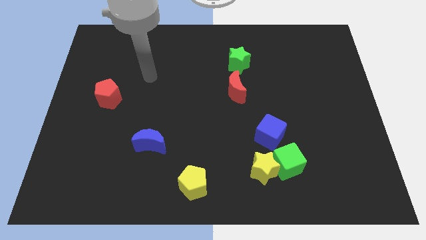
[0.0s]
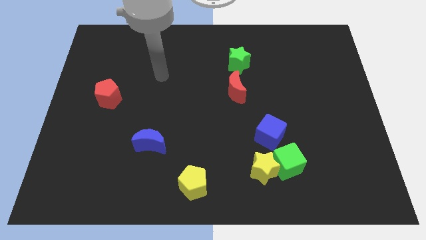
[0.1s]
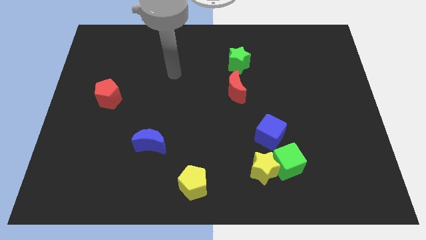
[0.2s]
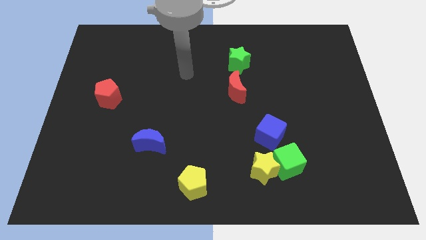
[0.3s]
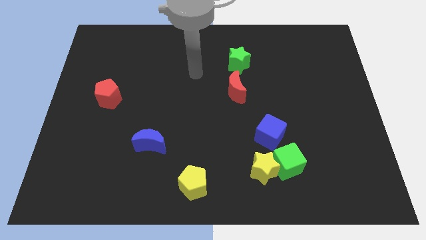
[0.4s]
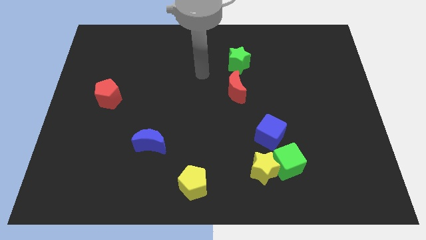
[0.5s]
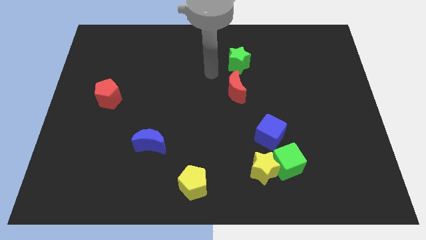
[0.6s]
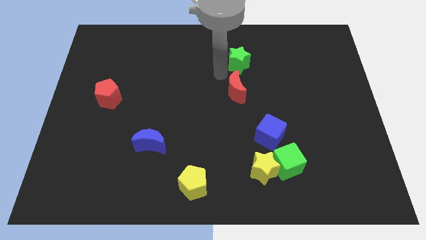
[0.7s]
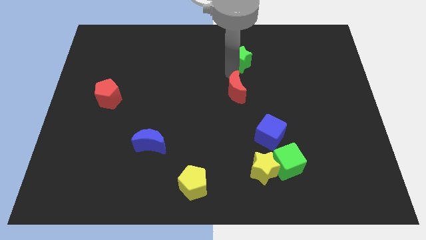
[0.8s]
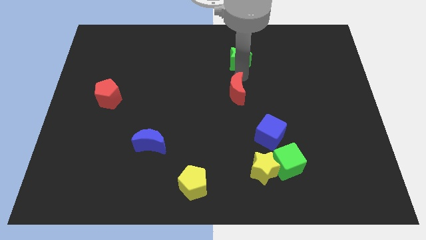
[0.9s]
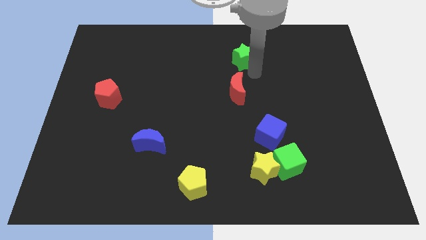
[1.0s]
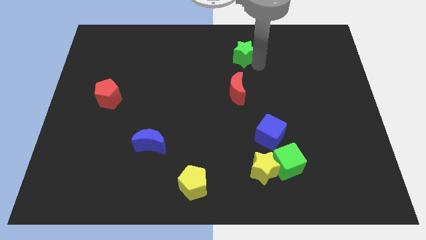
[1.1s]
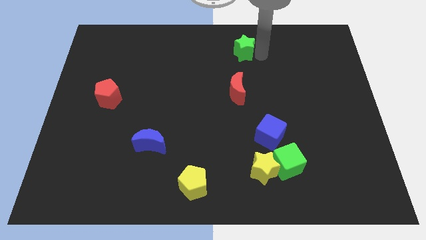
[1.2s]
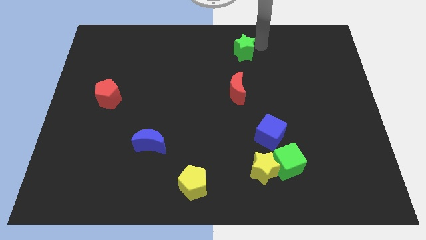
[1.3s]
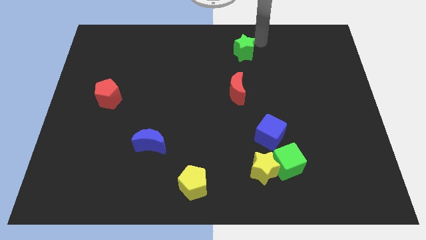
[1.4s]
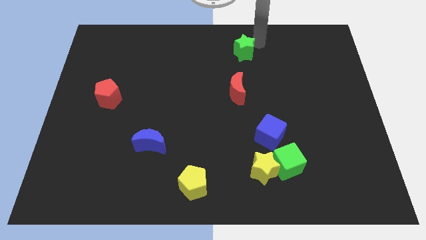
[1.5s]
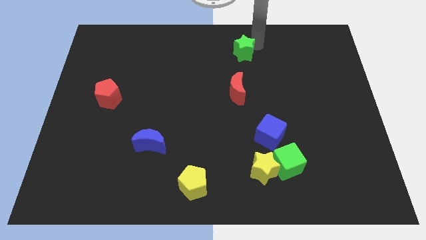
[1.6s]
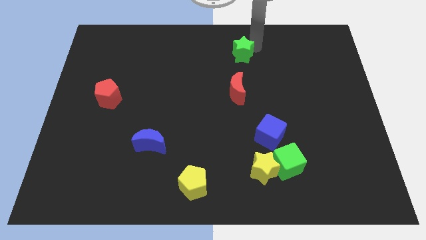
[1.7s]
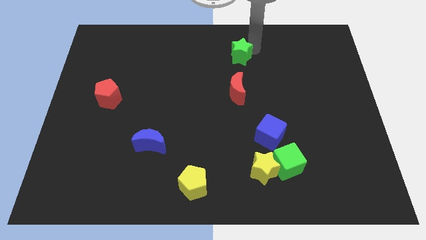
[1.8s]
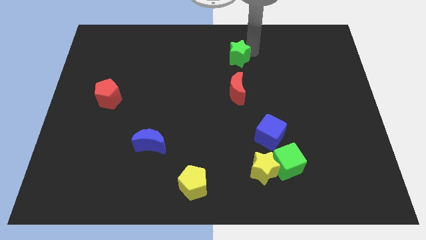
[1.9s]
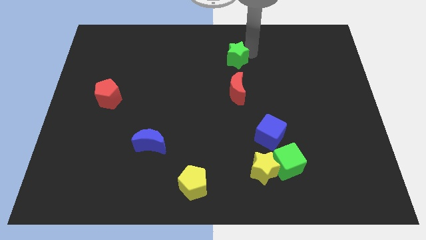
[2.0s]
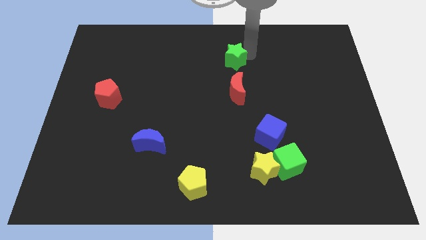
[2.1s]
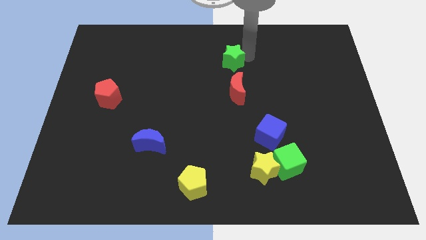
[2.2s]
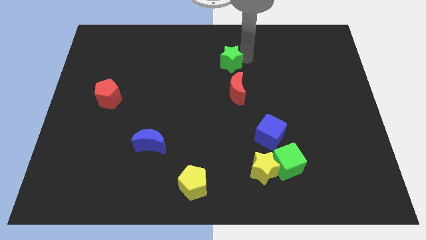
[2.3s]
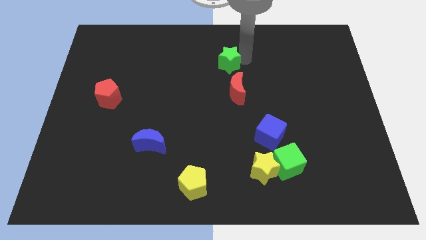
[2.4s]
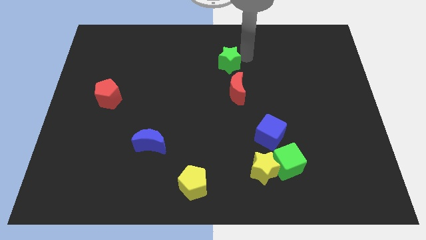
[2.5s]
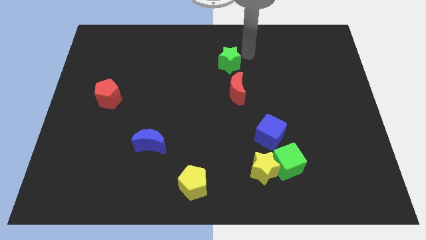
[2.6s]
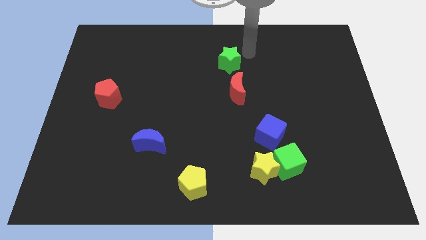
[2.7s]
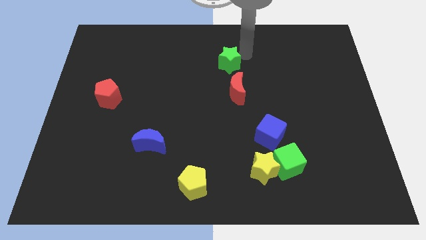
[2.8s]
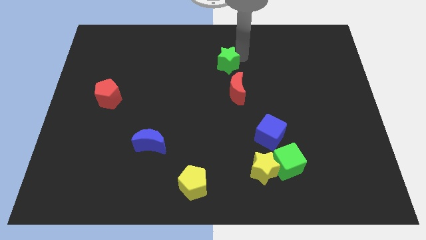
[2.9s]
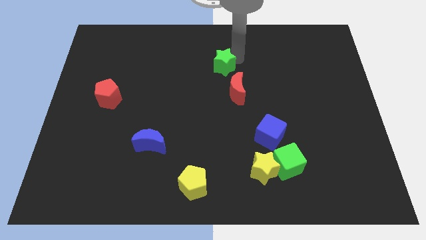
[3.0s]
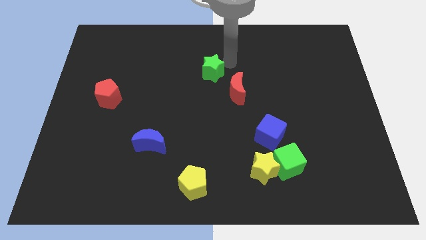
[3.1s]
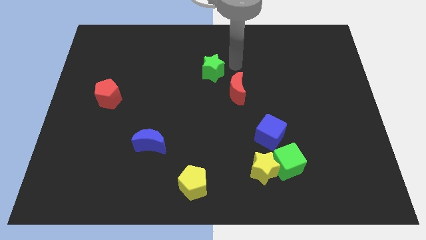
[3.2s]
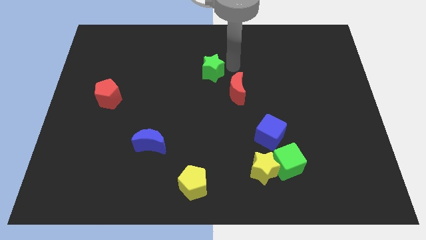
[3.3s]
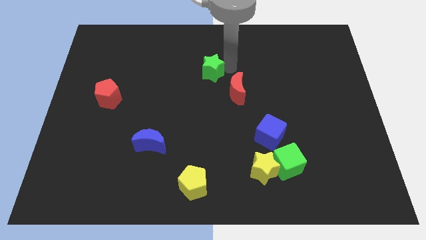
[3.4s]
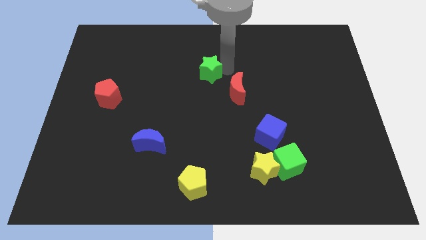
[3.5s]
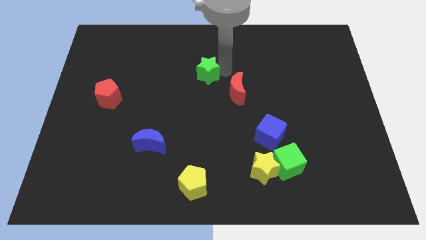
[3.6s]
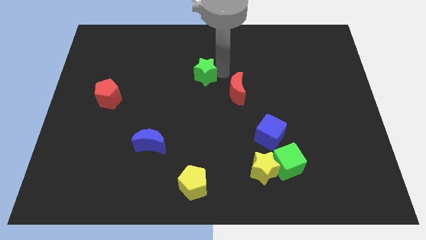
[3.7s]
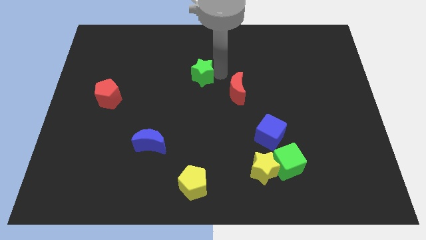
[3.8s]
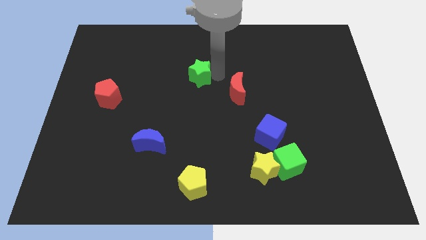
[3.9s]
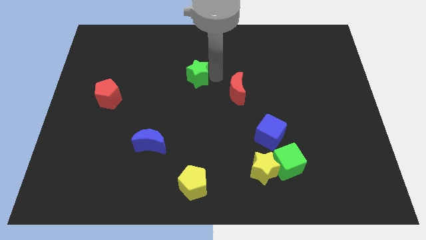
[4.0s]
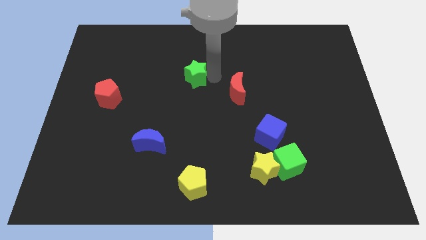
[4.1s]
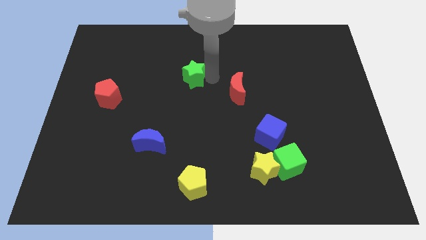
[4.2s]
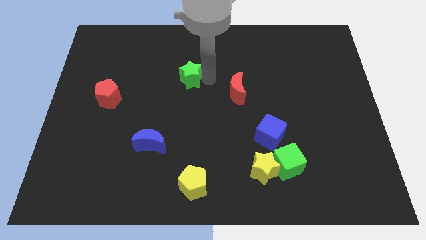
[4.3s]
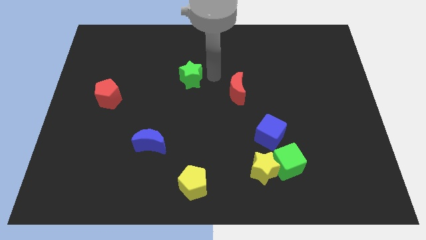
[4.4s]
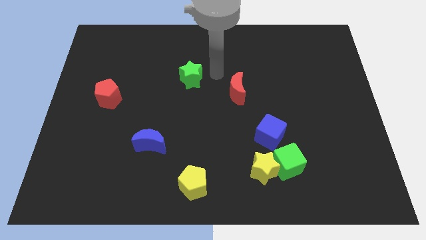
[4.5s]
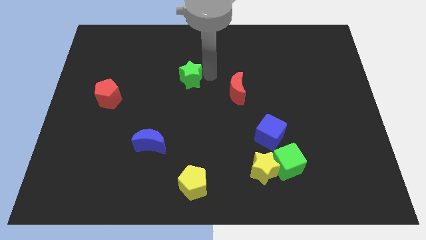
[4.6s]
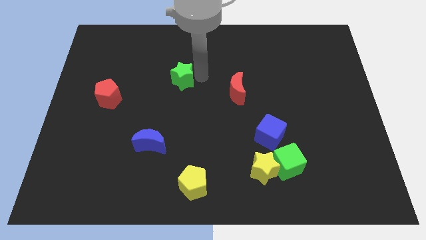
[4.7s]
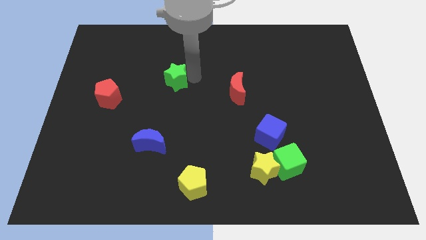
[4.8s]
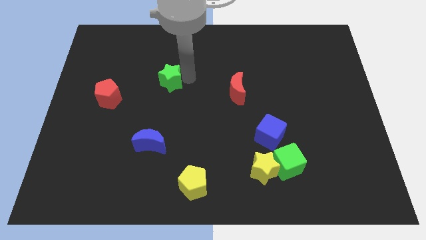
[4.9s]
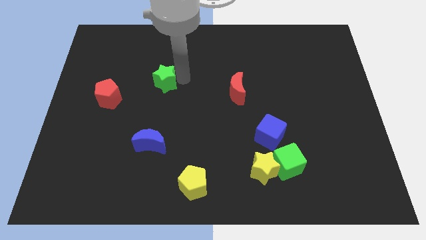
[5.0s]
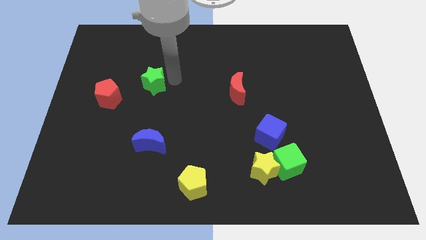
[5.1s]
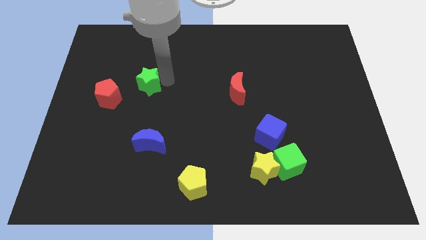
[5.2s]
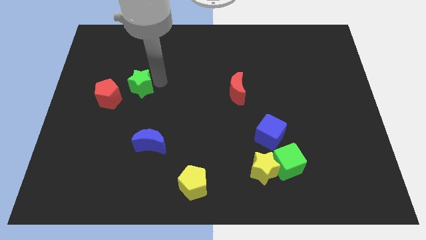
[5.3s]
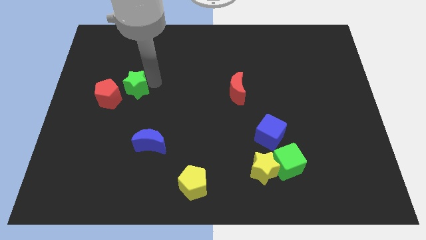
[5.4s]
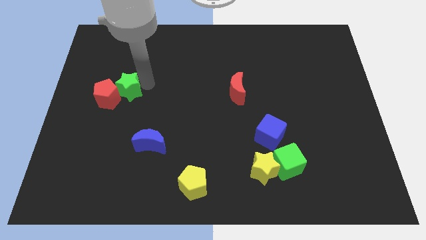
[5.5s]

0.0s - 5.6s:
push the green star towards the red pentagon

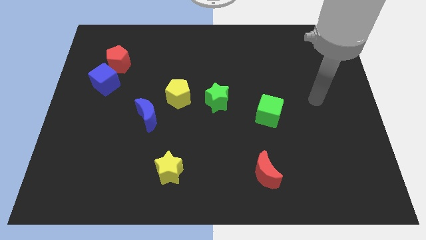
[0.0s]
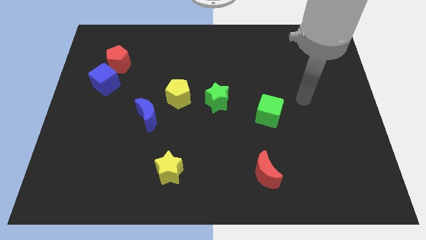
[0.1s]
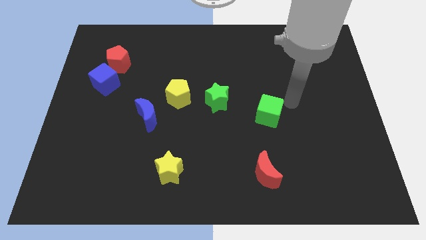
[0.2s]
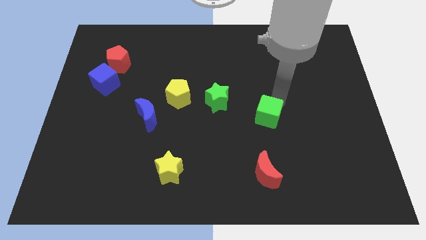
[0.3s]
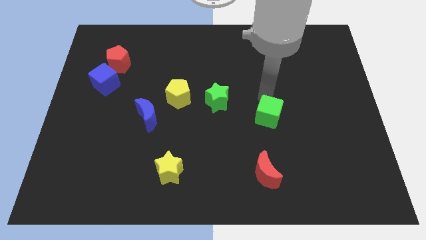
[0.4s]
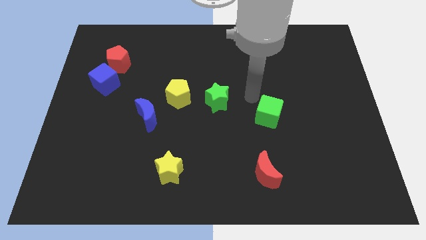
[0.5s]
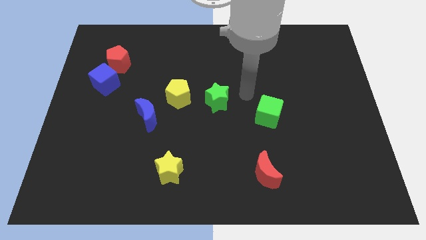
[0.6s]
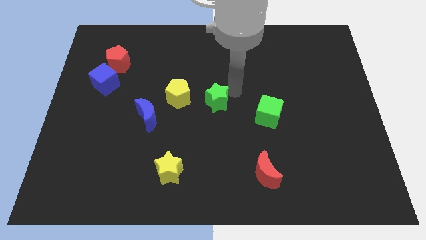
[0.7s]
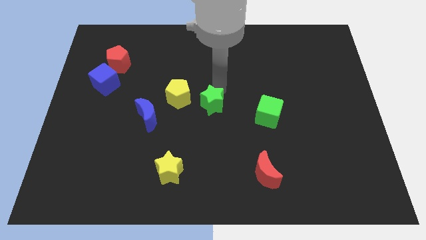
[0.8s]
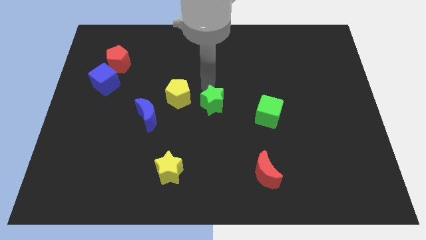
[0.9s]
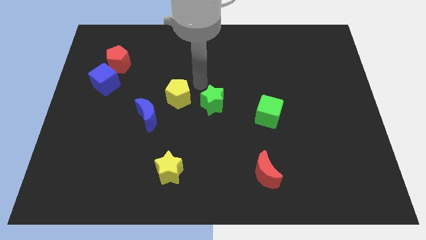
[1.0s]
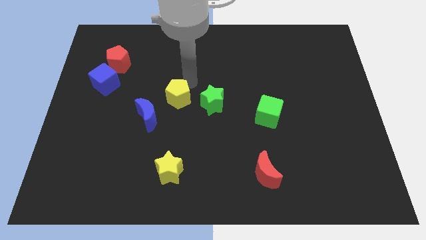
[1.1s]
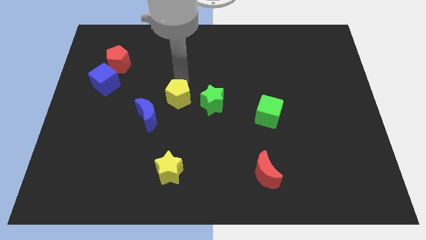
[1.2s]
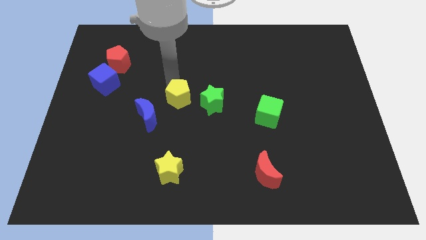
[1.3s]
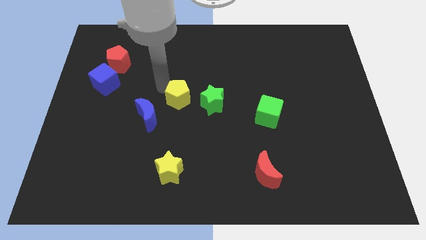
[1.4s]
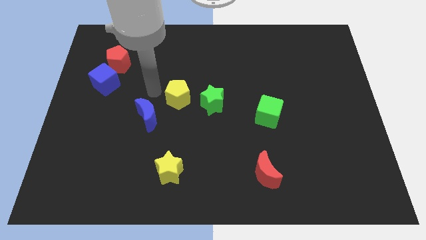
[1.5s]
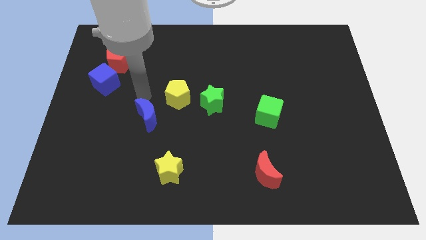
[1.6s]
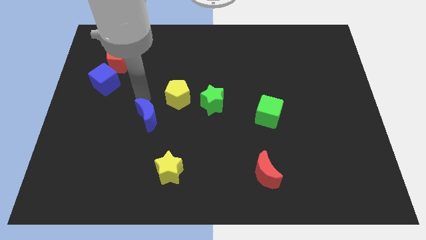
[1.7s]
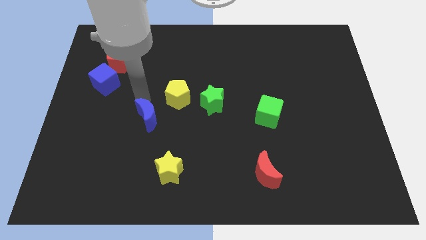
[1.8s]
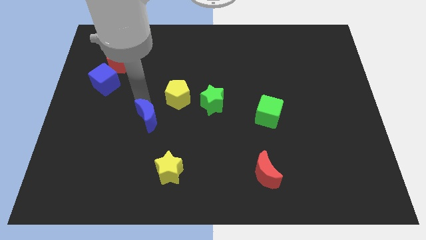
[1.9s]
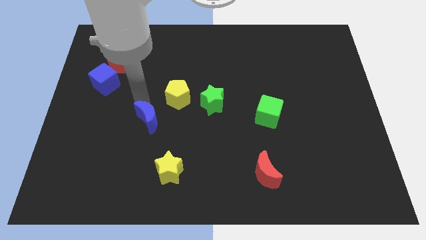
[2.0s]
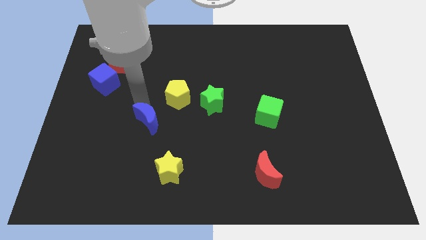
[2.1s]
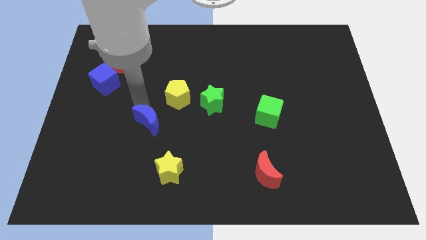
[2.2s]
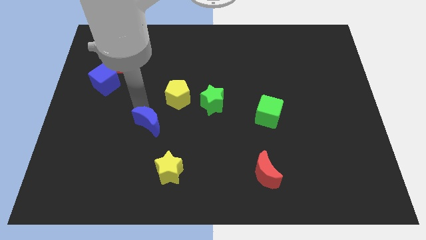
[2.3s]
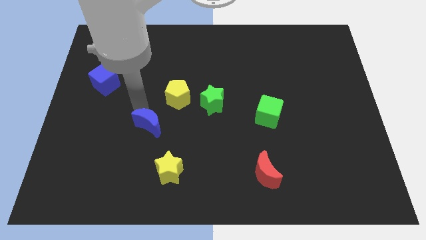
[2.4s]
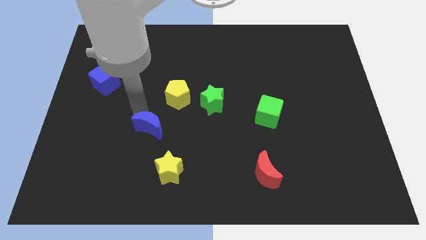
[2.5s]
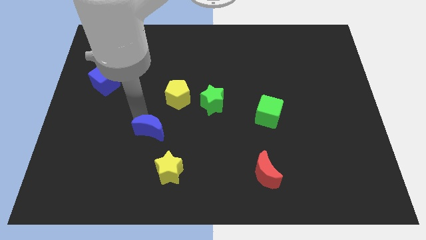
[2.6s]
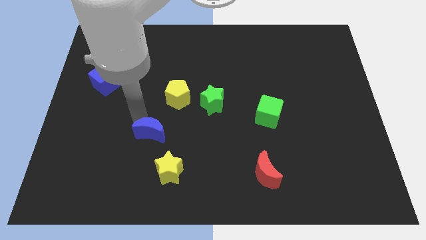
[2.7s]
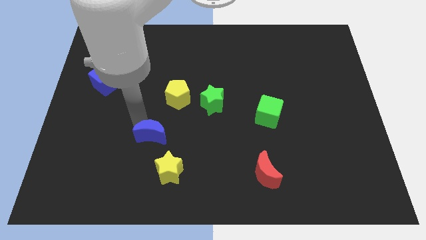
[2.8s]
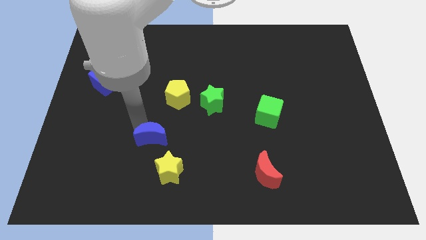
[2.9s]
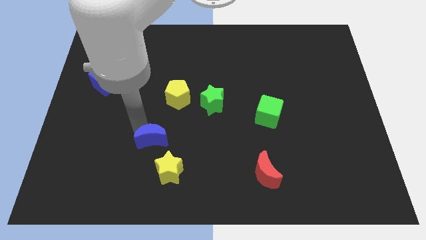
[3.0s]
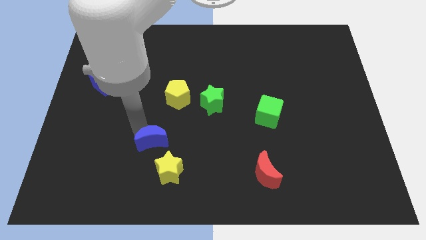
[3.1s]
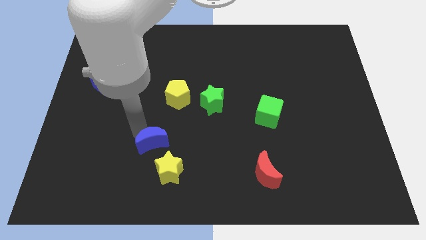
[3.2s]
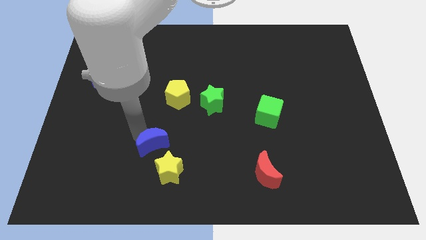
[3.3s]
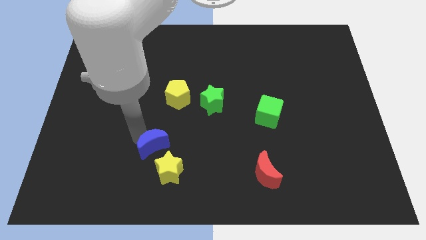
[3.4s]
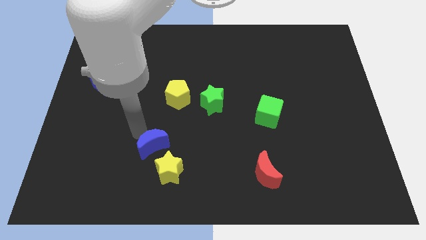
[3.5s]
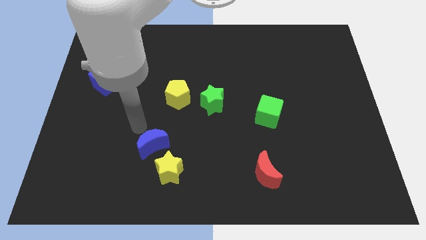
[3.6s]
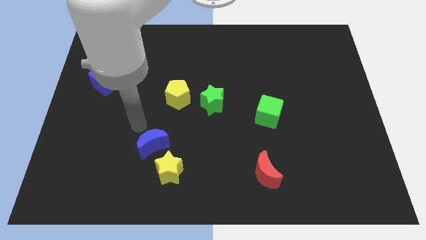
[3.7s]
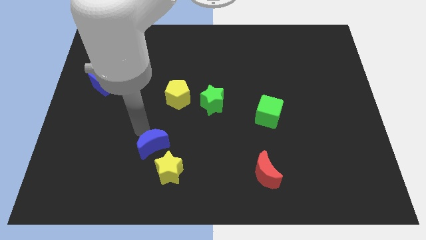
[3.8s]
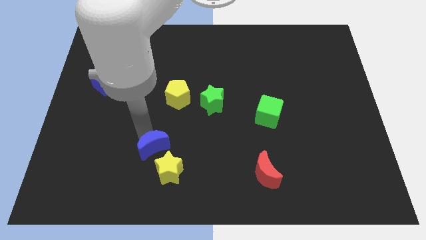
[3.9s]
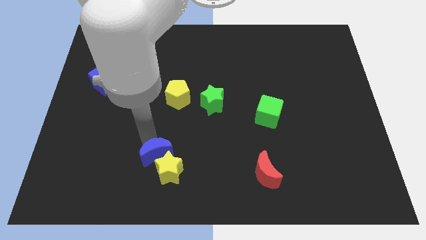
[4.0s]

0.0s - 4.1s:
push the blue moon towards the yellow star
